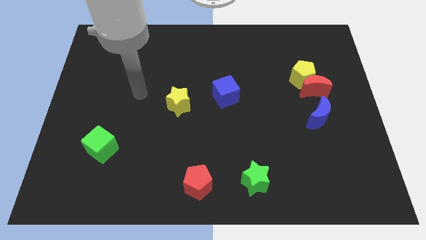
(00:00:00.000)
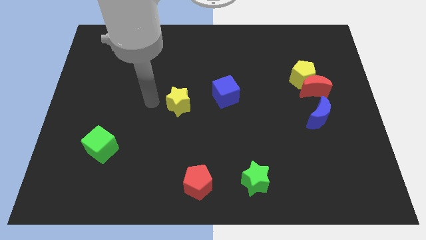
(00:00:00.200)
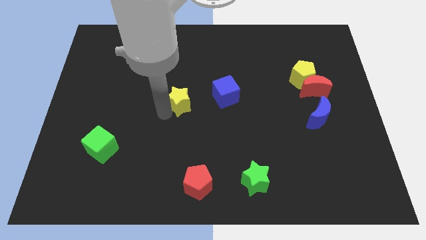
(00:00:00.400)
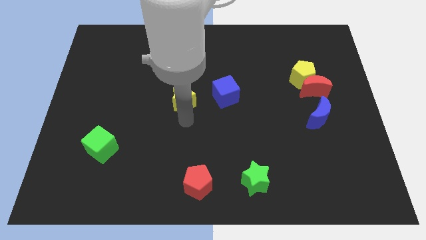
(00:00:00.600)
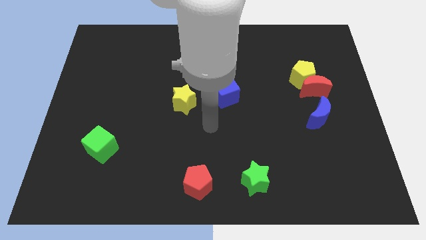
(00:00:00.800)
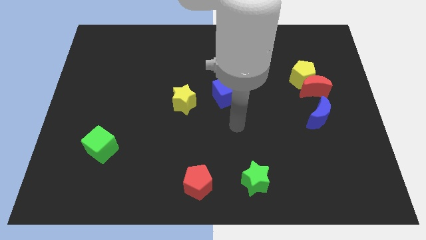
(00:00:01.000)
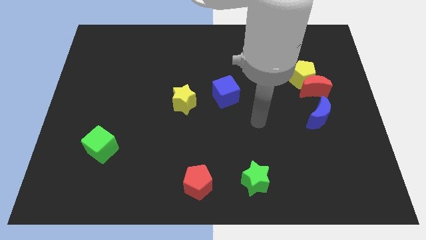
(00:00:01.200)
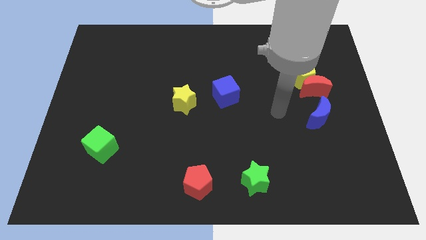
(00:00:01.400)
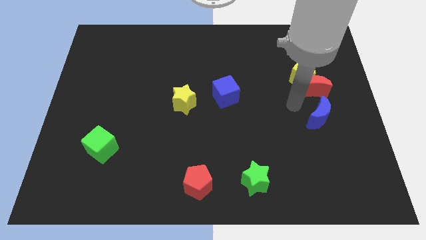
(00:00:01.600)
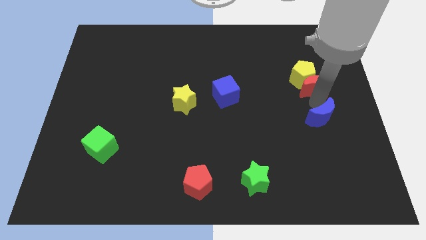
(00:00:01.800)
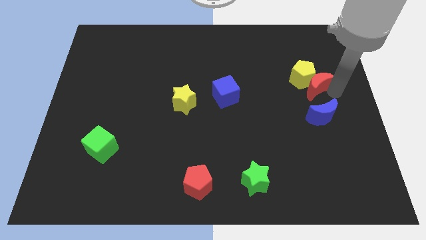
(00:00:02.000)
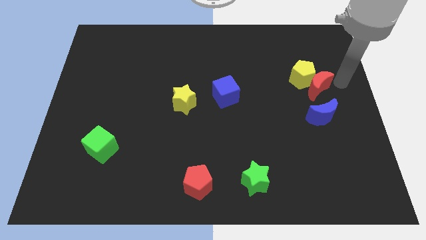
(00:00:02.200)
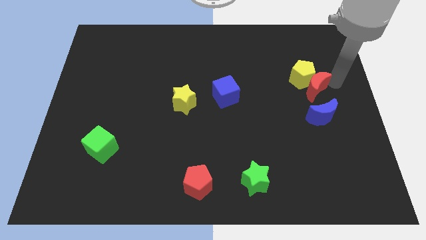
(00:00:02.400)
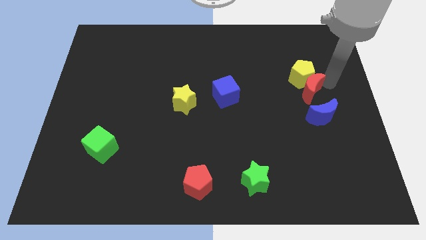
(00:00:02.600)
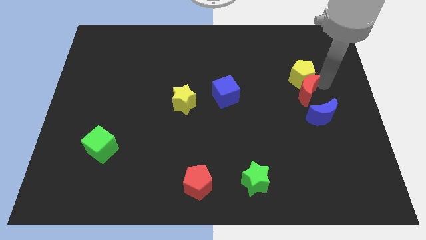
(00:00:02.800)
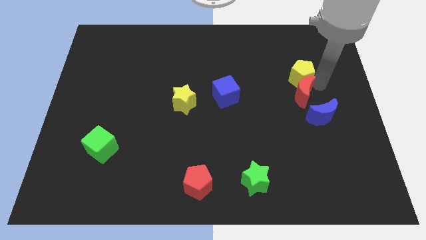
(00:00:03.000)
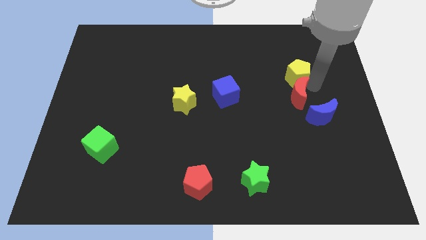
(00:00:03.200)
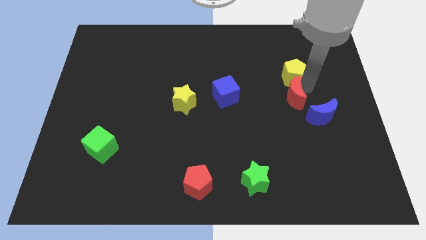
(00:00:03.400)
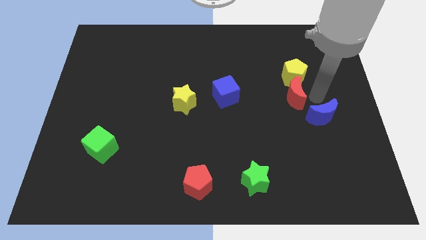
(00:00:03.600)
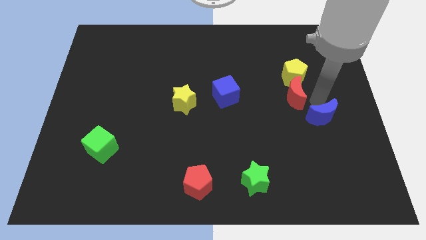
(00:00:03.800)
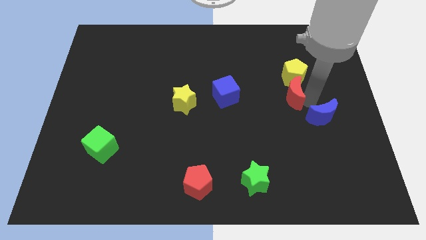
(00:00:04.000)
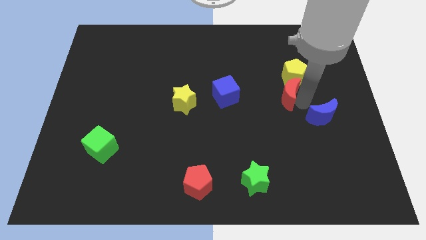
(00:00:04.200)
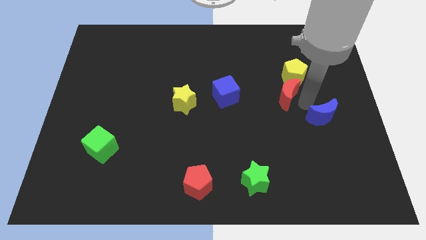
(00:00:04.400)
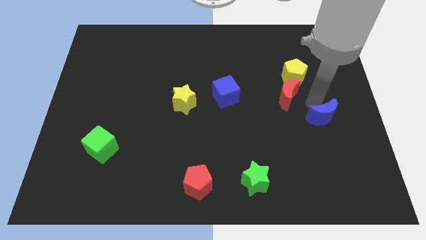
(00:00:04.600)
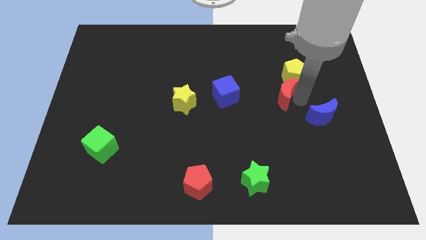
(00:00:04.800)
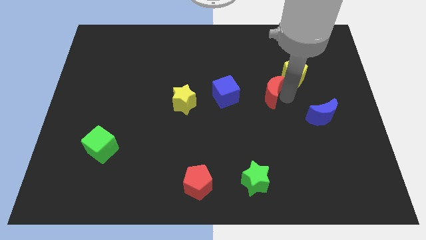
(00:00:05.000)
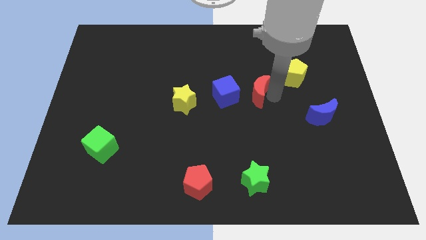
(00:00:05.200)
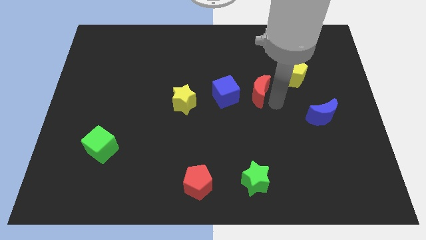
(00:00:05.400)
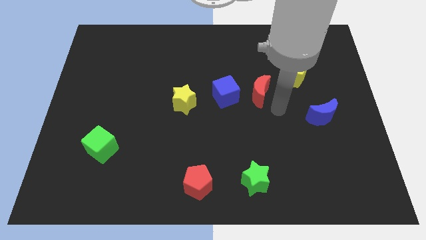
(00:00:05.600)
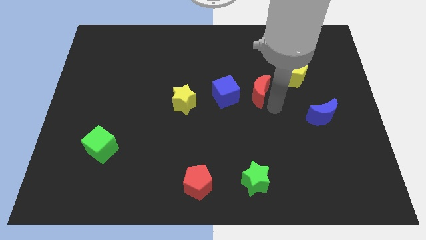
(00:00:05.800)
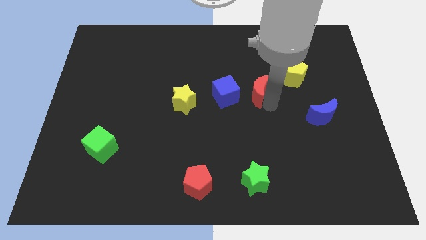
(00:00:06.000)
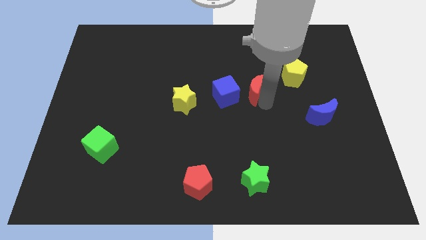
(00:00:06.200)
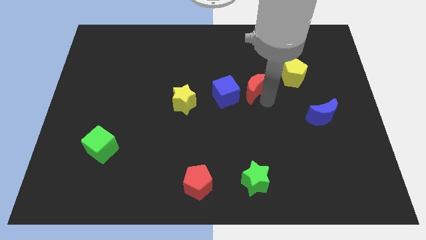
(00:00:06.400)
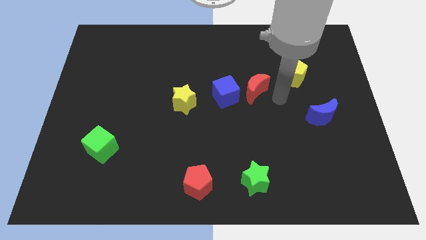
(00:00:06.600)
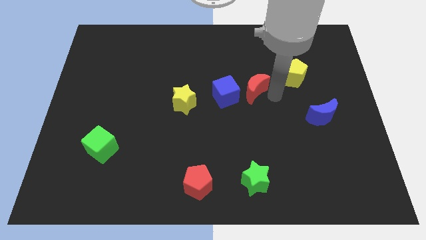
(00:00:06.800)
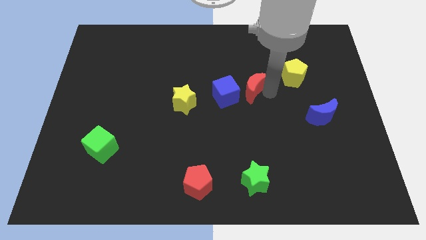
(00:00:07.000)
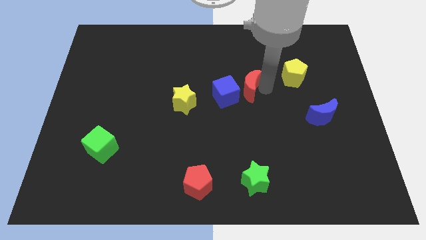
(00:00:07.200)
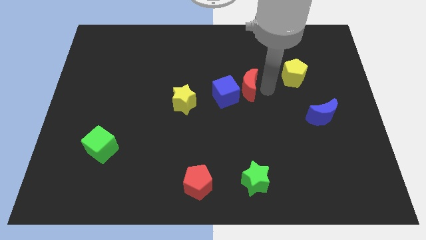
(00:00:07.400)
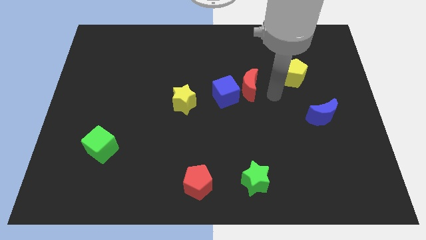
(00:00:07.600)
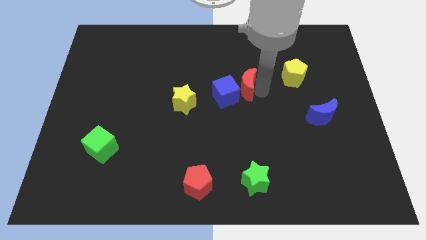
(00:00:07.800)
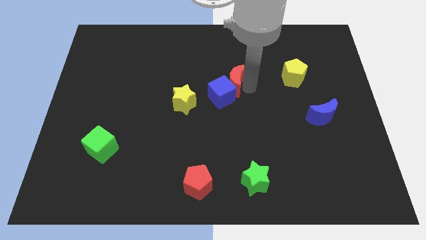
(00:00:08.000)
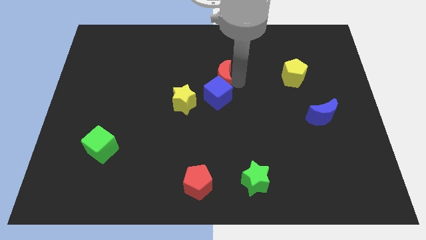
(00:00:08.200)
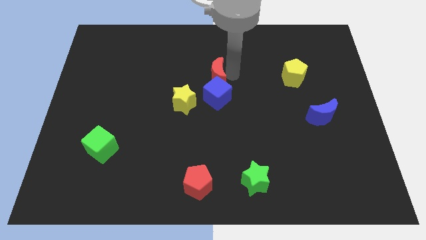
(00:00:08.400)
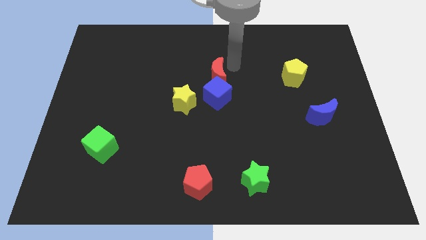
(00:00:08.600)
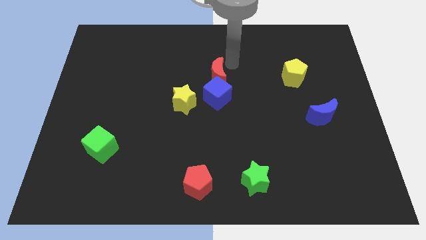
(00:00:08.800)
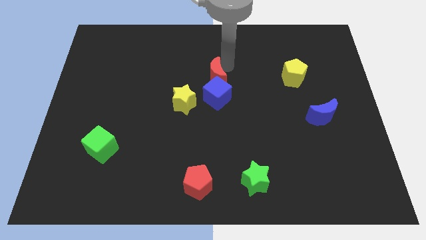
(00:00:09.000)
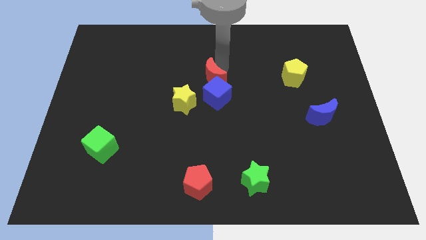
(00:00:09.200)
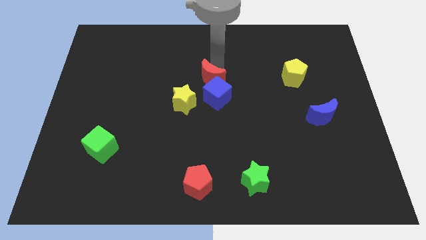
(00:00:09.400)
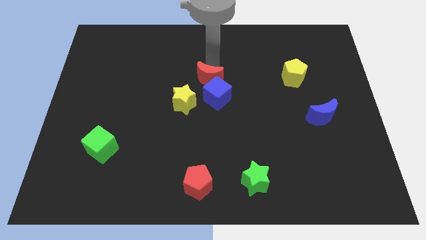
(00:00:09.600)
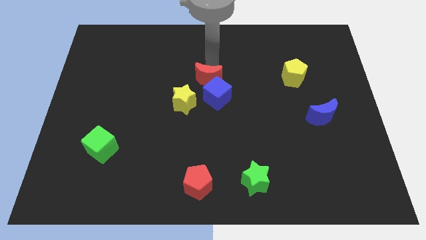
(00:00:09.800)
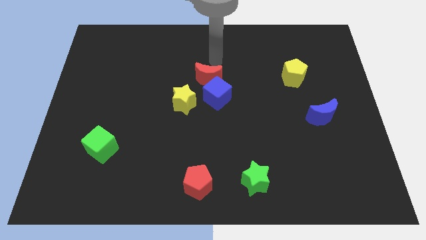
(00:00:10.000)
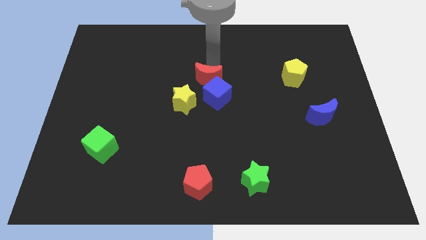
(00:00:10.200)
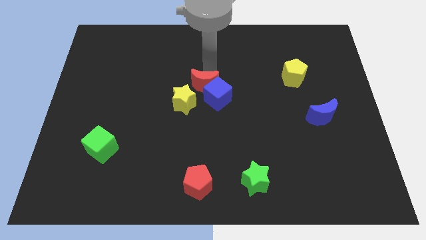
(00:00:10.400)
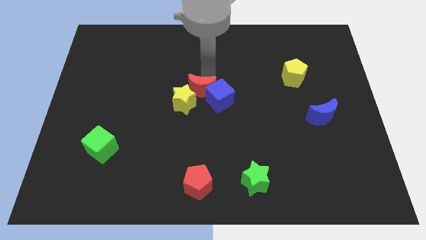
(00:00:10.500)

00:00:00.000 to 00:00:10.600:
push the red moon next to the yellow star

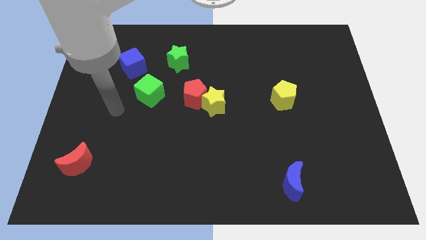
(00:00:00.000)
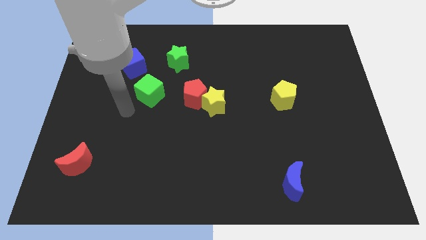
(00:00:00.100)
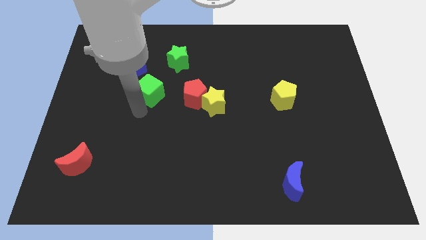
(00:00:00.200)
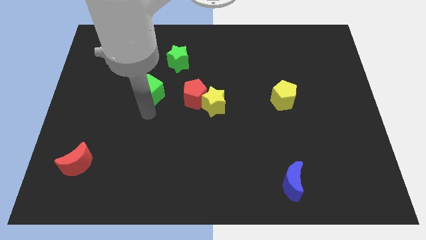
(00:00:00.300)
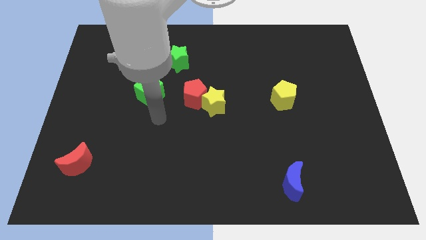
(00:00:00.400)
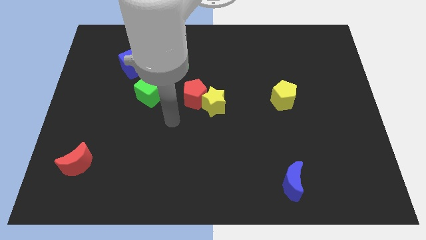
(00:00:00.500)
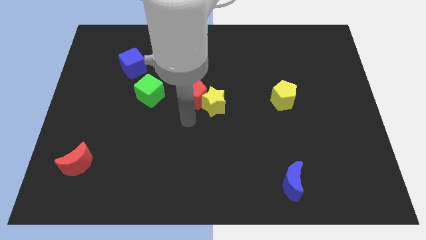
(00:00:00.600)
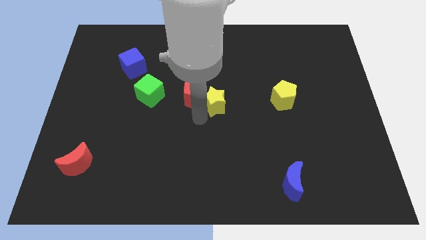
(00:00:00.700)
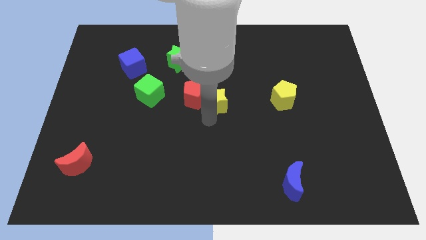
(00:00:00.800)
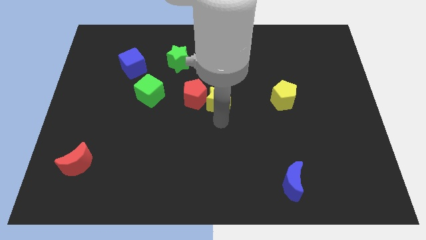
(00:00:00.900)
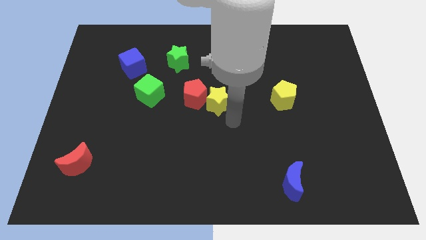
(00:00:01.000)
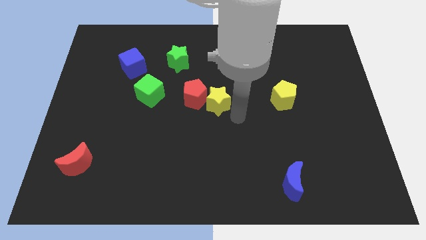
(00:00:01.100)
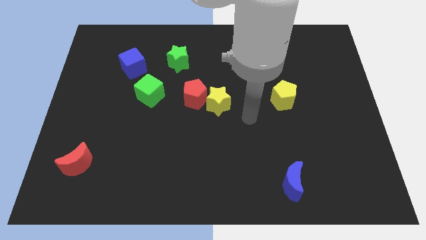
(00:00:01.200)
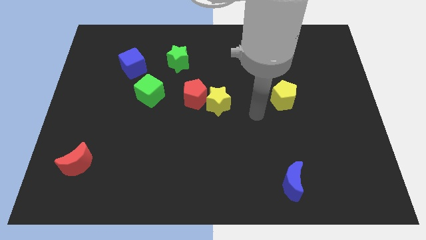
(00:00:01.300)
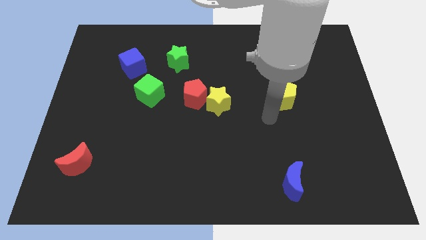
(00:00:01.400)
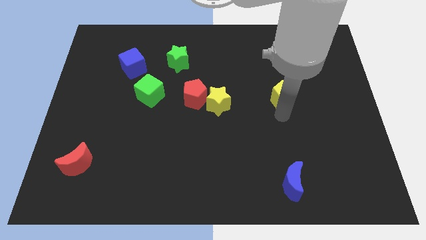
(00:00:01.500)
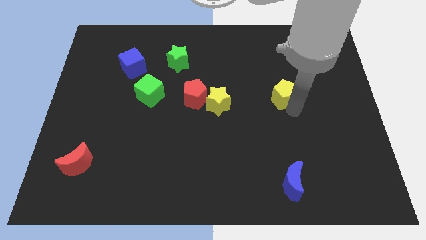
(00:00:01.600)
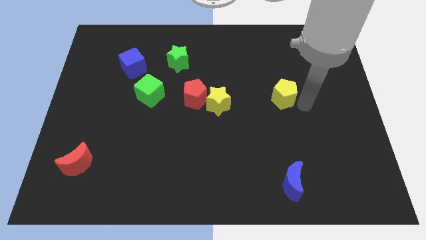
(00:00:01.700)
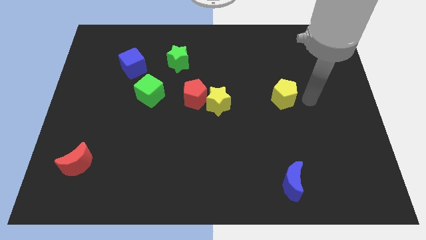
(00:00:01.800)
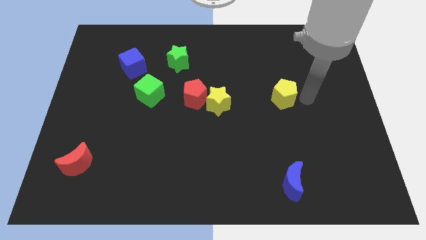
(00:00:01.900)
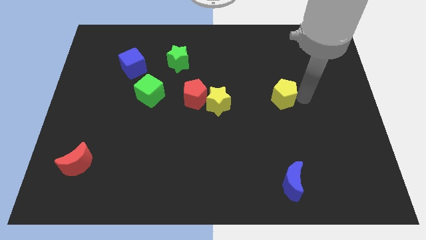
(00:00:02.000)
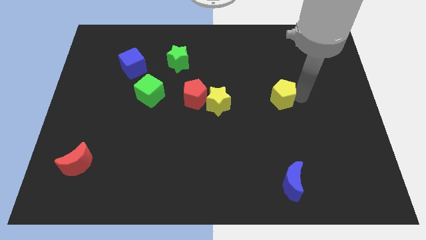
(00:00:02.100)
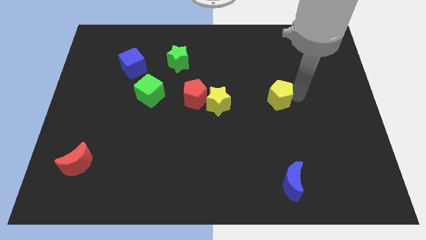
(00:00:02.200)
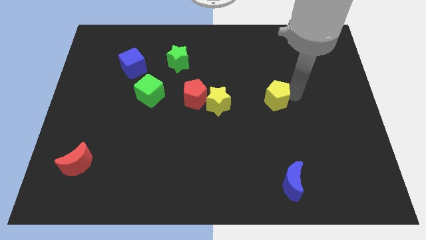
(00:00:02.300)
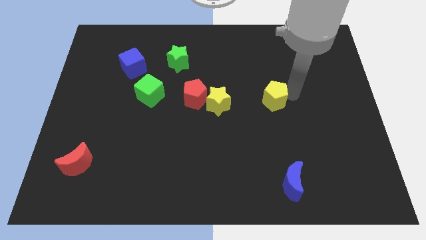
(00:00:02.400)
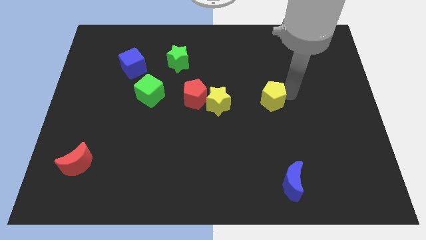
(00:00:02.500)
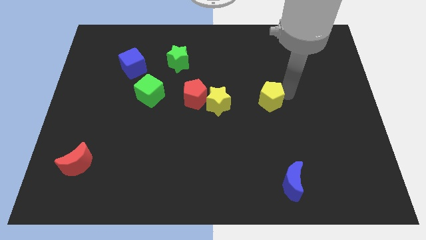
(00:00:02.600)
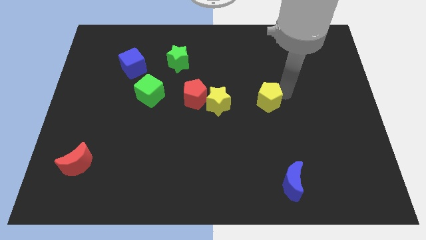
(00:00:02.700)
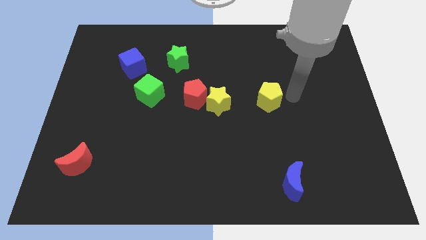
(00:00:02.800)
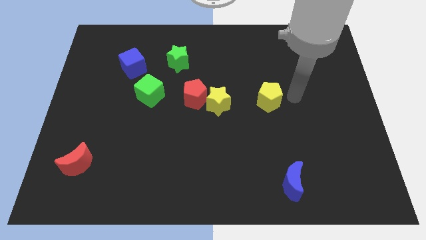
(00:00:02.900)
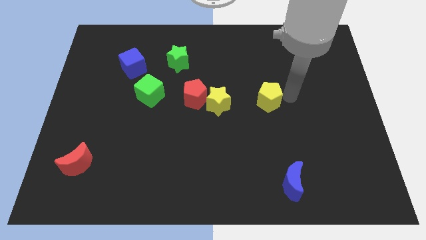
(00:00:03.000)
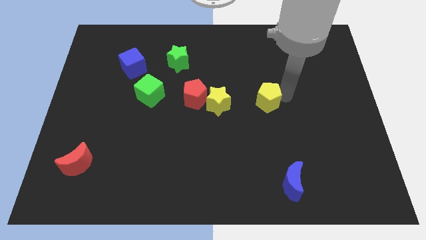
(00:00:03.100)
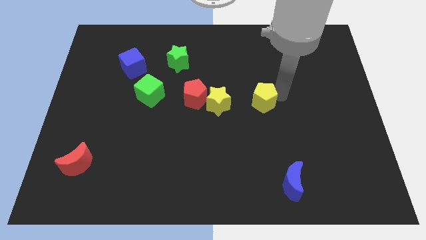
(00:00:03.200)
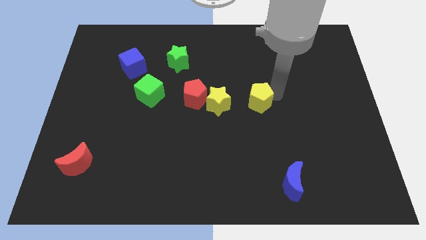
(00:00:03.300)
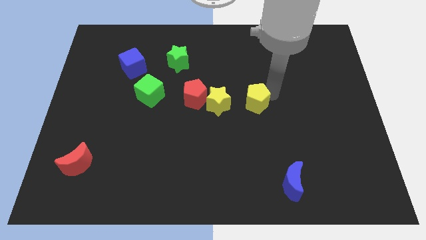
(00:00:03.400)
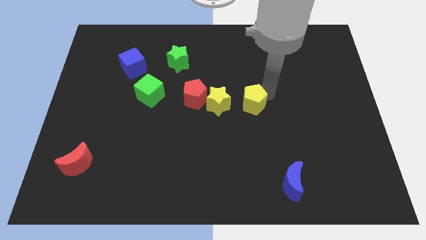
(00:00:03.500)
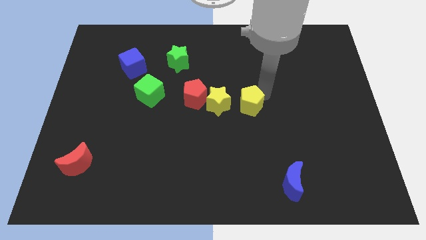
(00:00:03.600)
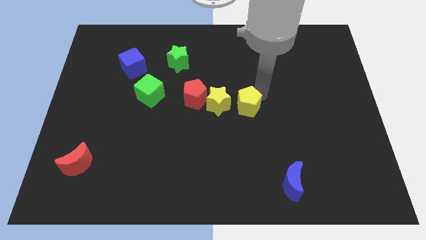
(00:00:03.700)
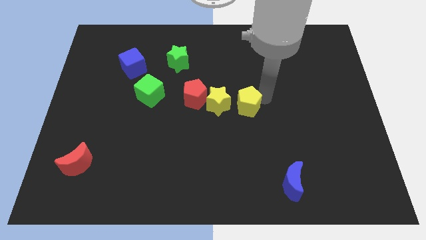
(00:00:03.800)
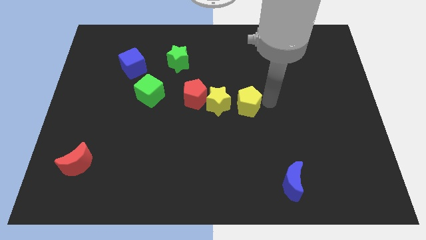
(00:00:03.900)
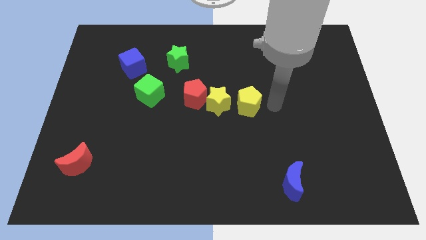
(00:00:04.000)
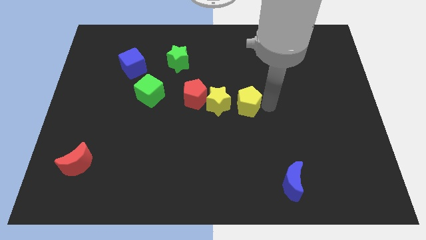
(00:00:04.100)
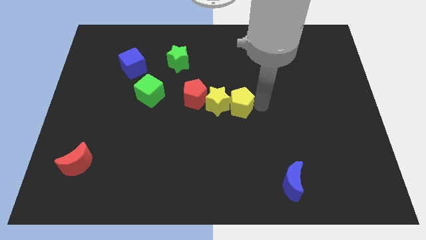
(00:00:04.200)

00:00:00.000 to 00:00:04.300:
put the yellow pentagon towards the yellow star
